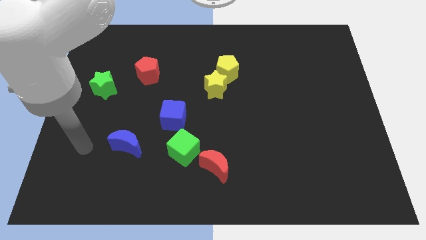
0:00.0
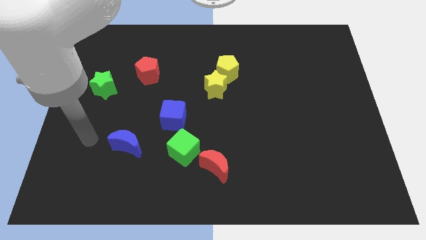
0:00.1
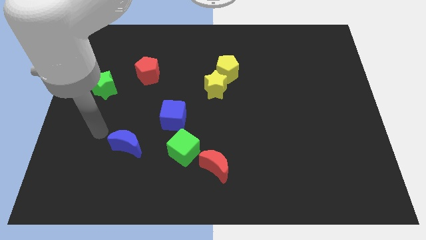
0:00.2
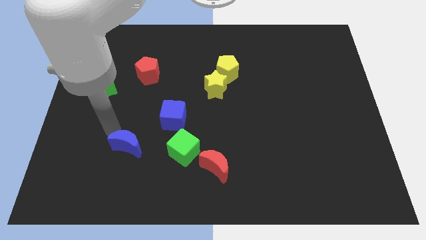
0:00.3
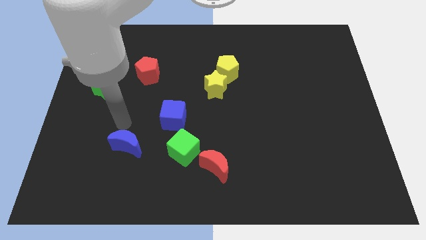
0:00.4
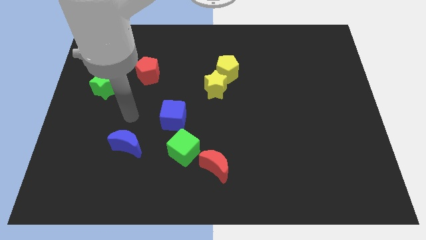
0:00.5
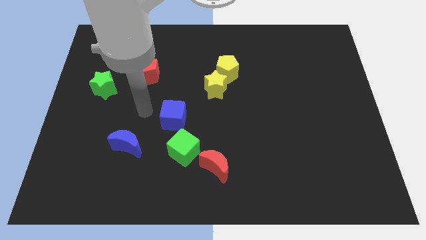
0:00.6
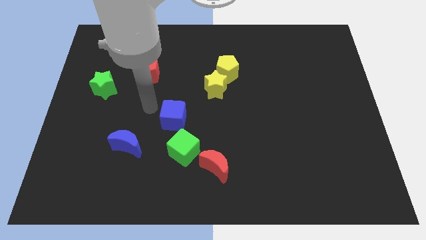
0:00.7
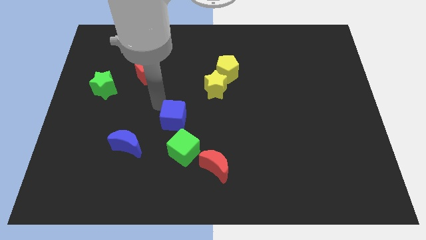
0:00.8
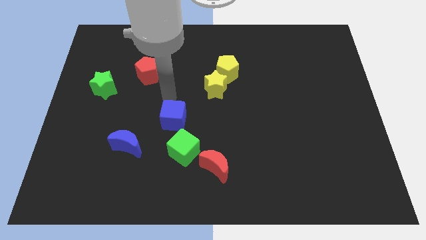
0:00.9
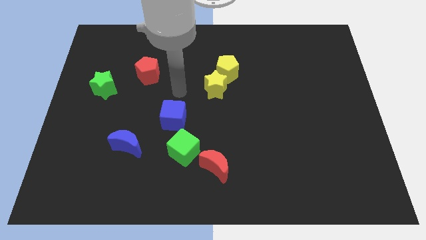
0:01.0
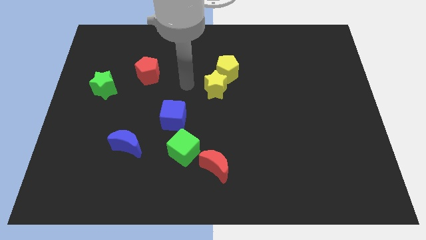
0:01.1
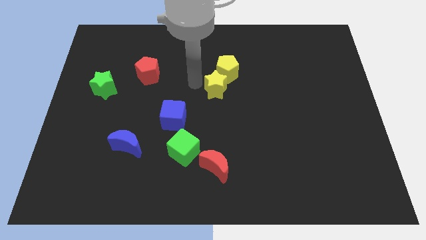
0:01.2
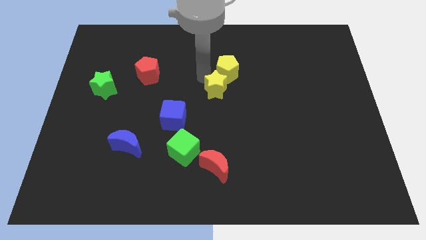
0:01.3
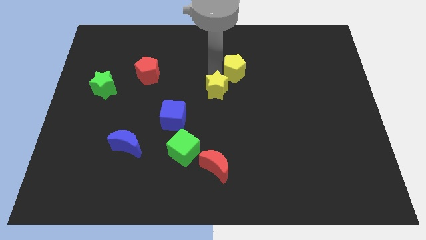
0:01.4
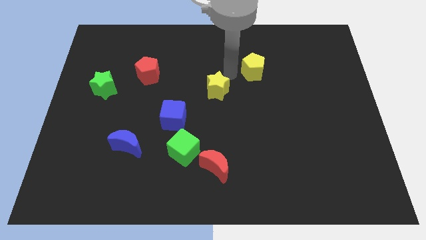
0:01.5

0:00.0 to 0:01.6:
pull the yellow star apart from the yellow pentagon

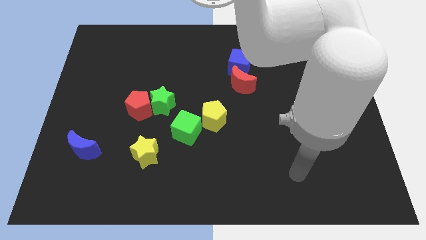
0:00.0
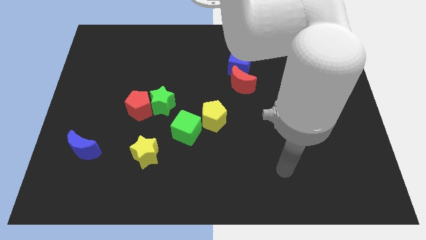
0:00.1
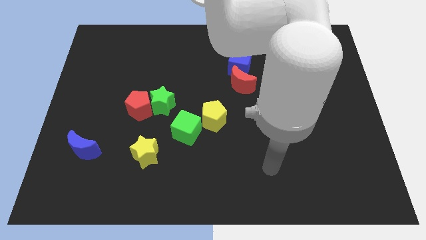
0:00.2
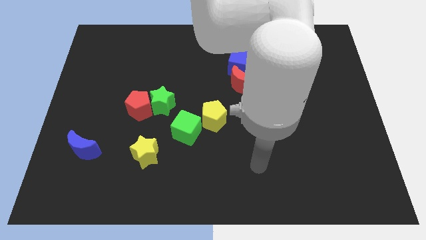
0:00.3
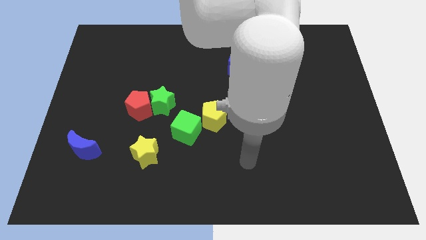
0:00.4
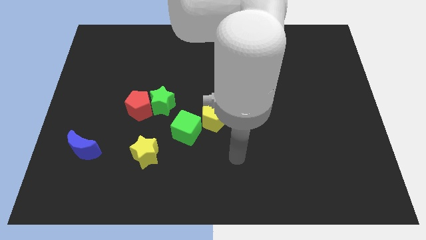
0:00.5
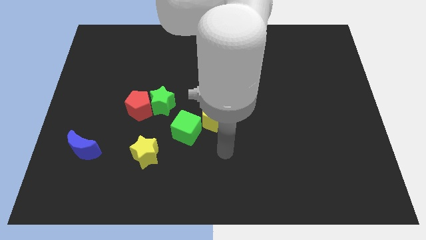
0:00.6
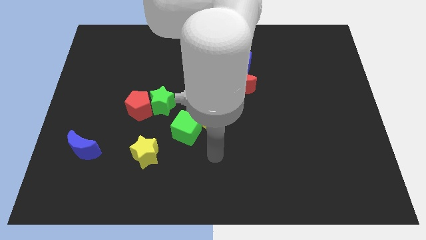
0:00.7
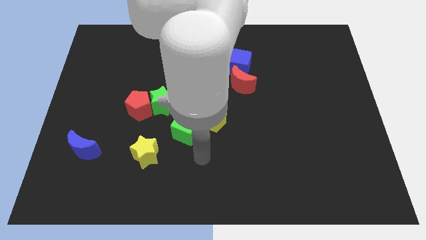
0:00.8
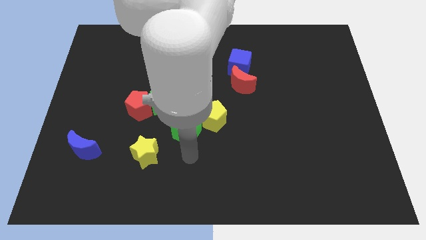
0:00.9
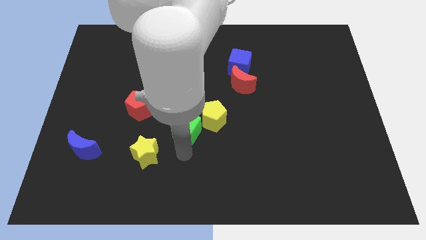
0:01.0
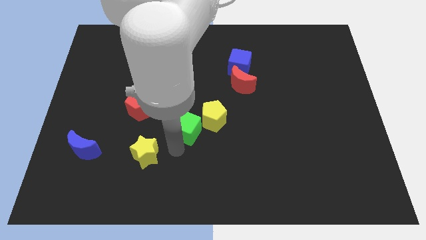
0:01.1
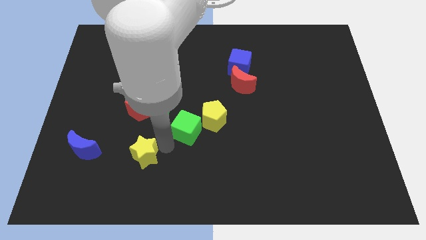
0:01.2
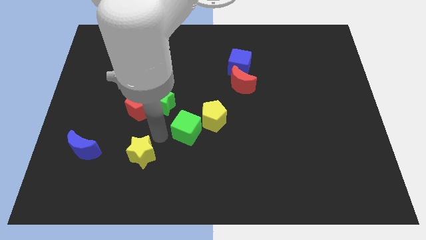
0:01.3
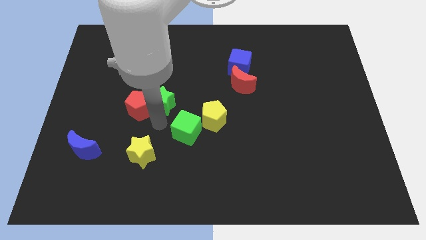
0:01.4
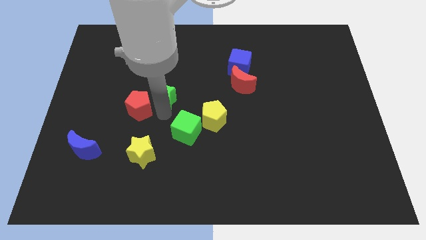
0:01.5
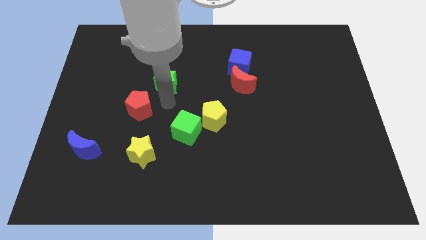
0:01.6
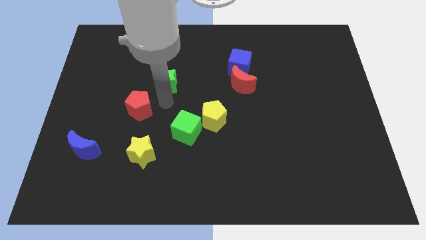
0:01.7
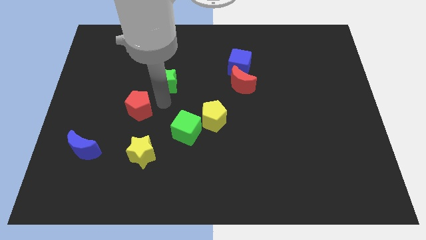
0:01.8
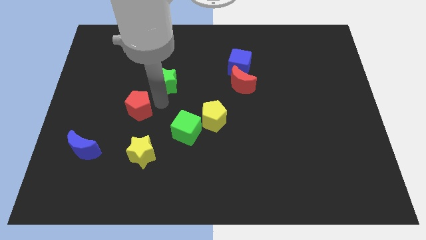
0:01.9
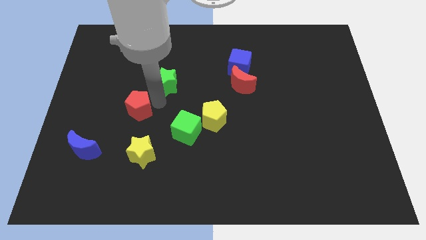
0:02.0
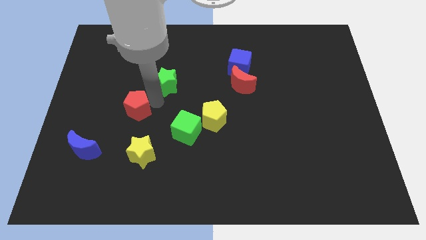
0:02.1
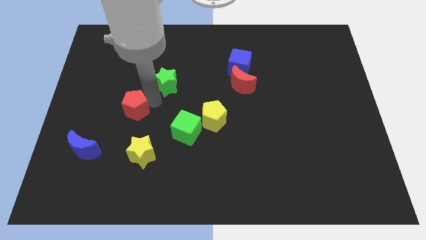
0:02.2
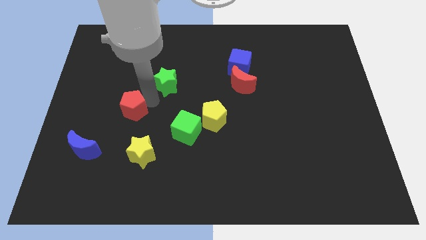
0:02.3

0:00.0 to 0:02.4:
pull the red pentagon apart from the green star

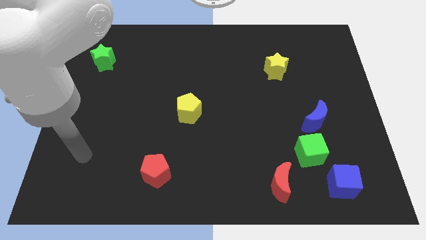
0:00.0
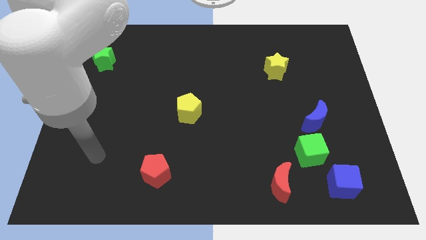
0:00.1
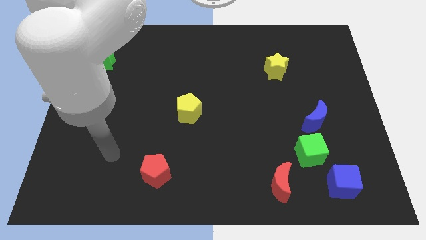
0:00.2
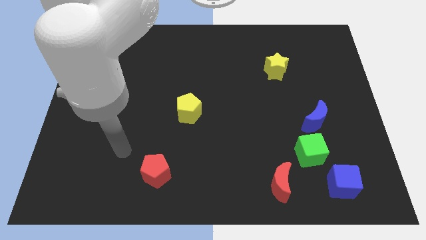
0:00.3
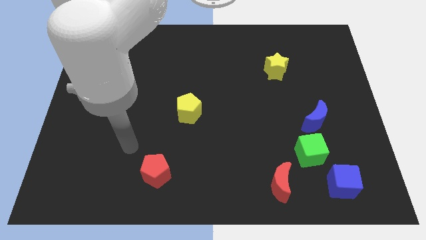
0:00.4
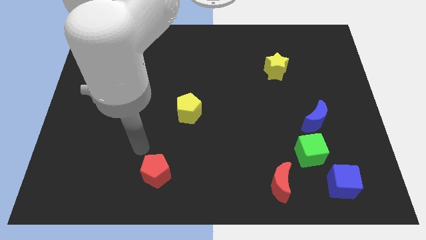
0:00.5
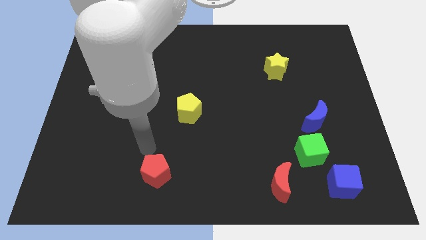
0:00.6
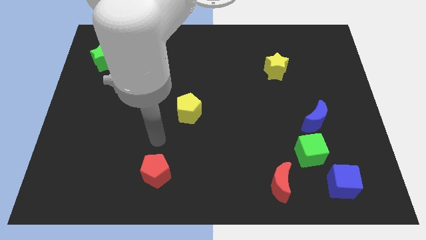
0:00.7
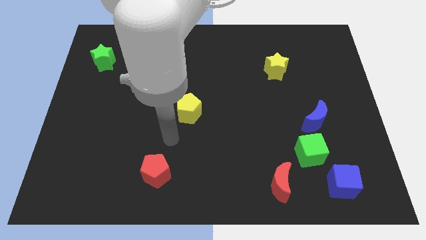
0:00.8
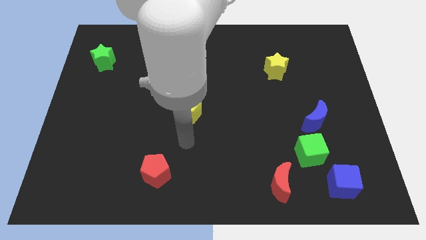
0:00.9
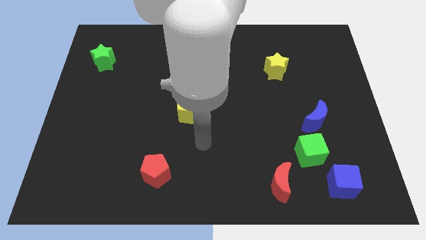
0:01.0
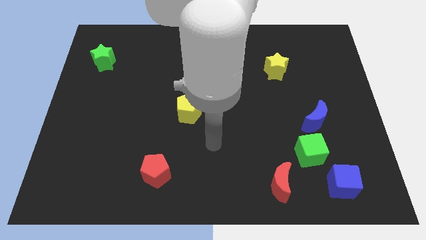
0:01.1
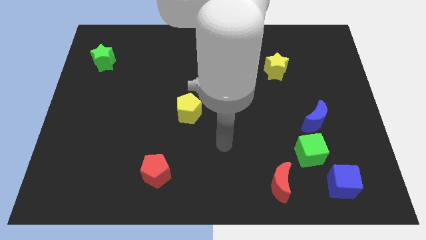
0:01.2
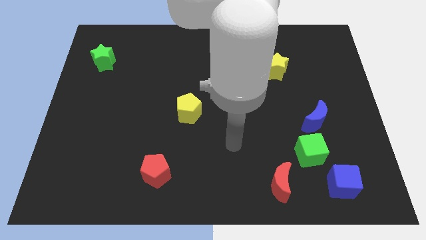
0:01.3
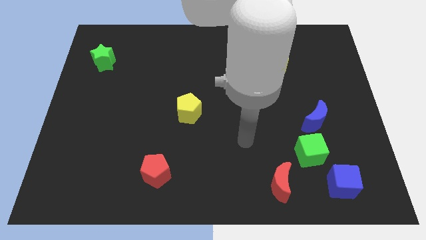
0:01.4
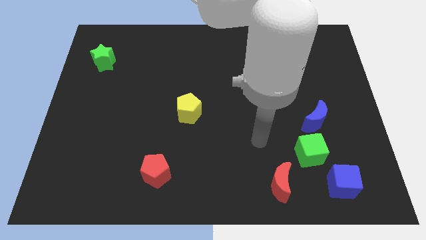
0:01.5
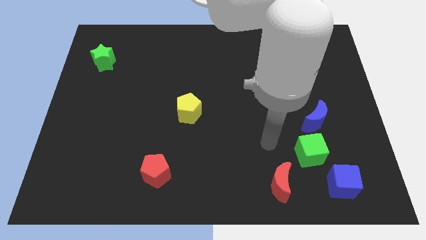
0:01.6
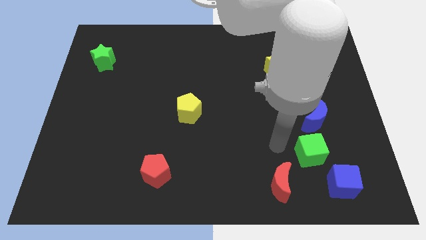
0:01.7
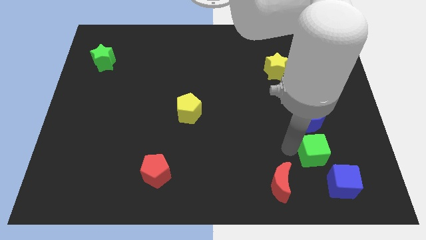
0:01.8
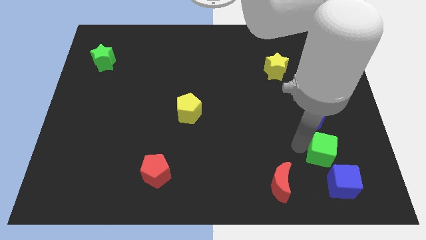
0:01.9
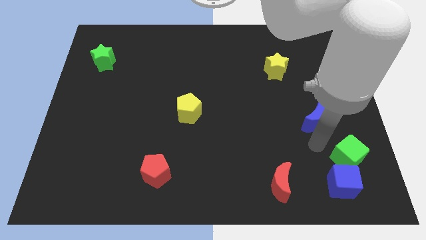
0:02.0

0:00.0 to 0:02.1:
separate the blue moon from the green cube

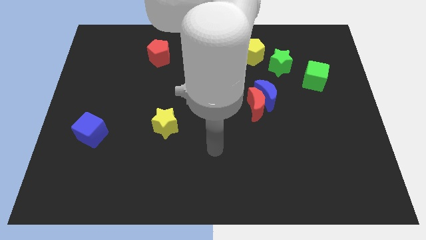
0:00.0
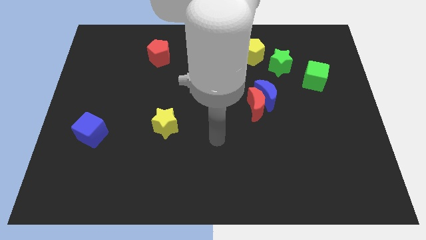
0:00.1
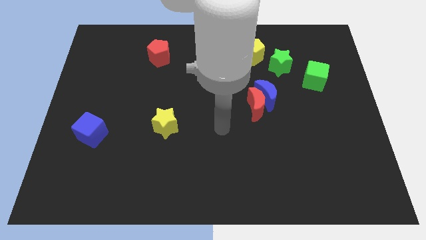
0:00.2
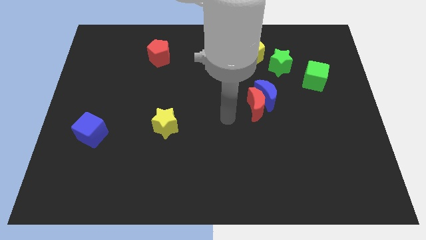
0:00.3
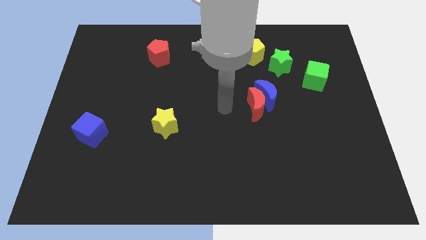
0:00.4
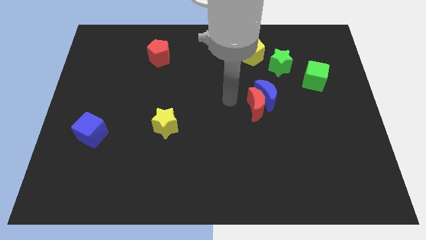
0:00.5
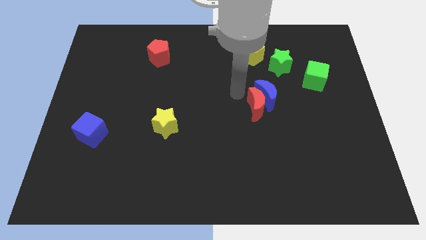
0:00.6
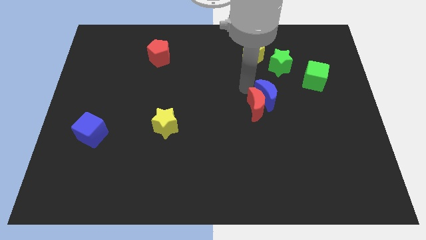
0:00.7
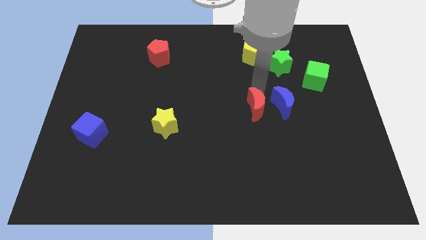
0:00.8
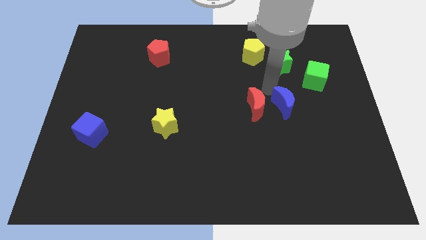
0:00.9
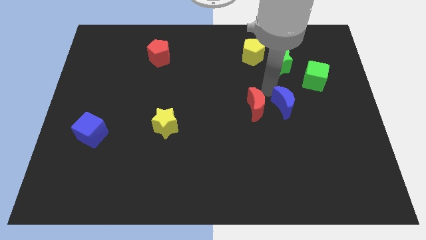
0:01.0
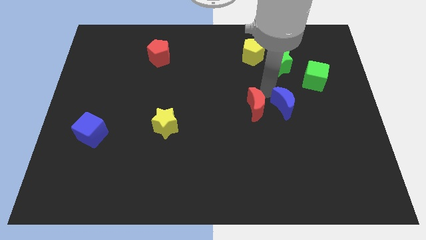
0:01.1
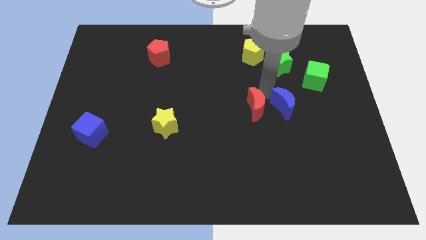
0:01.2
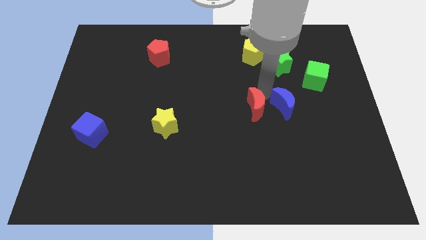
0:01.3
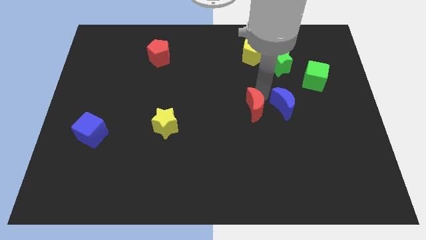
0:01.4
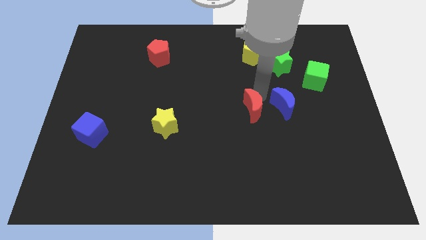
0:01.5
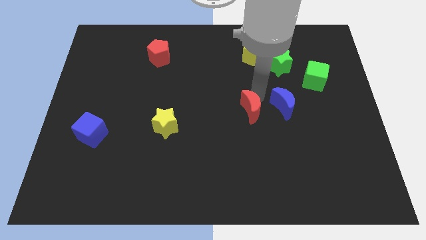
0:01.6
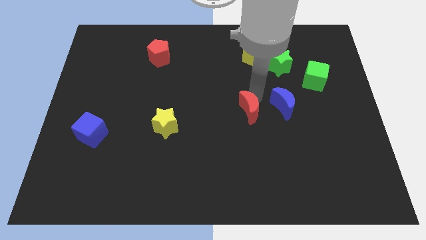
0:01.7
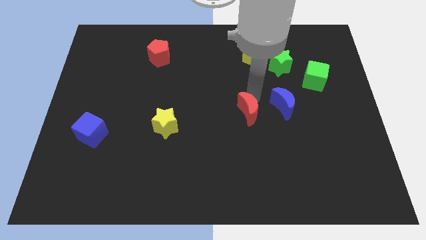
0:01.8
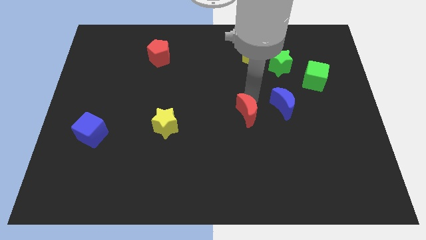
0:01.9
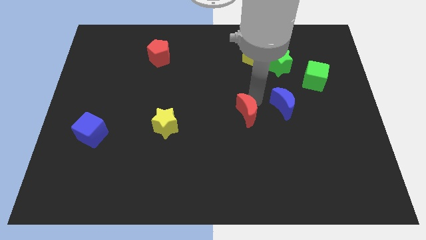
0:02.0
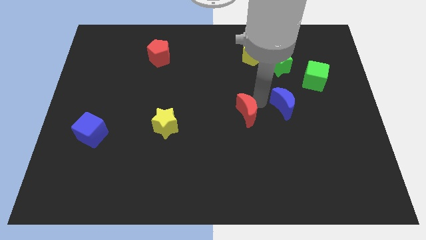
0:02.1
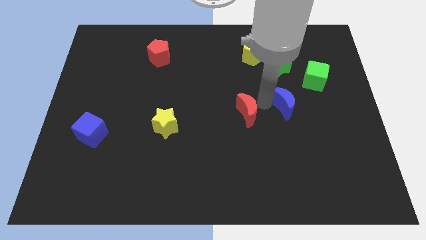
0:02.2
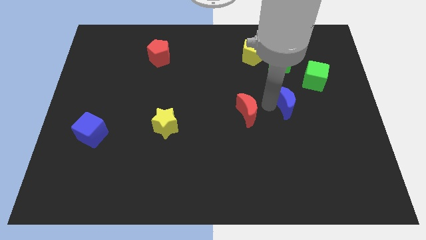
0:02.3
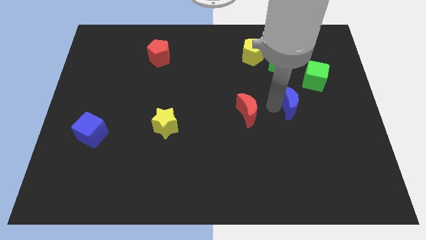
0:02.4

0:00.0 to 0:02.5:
move the red moon away from the blue moon

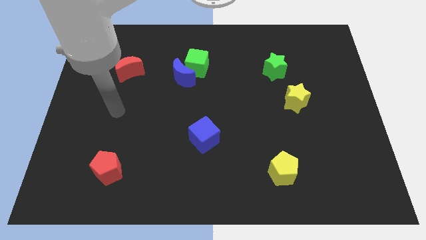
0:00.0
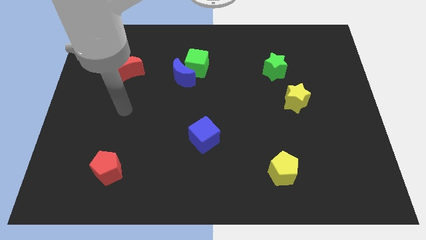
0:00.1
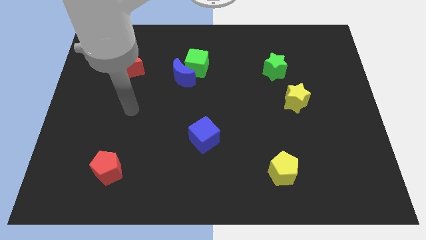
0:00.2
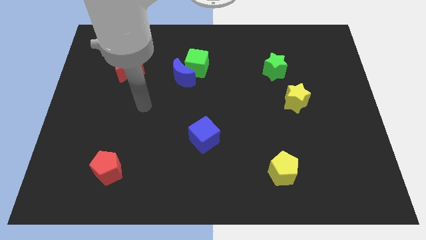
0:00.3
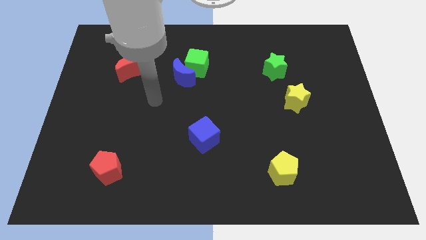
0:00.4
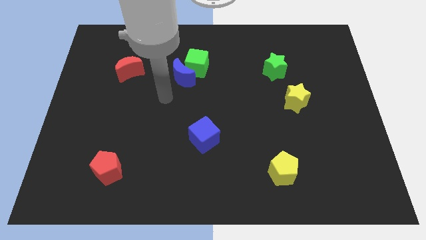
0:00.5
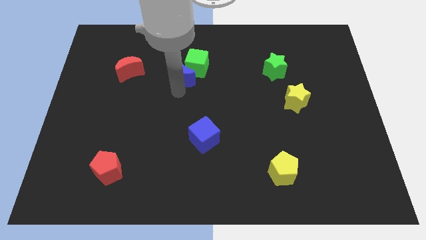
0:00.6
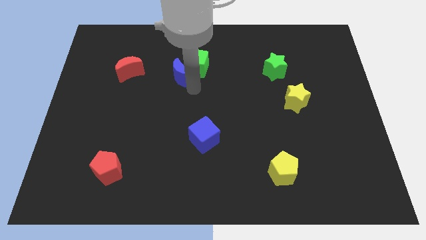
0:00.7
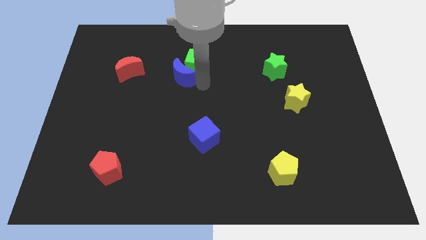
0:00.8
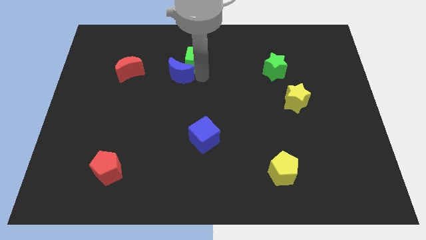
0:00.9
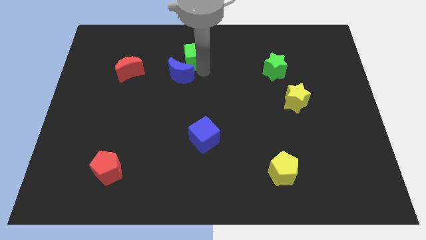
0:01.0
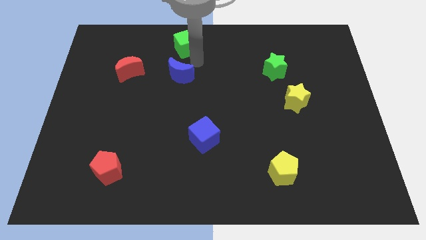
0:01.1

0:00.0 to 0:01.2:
pull the blue moon apart from the green cube
